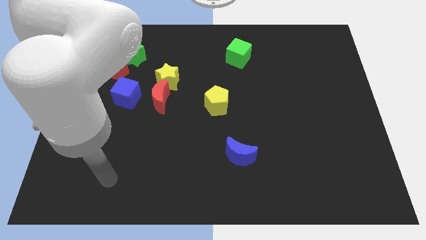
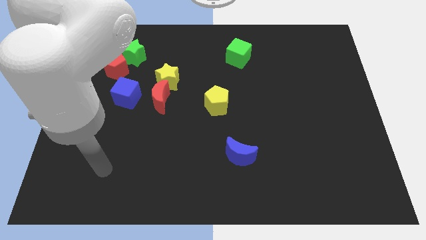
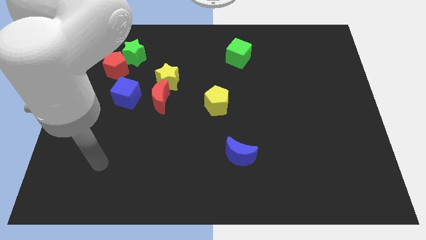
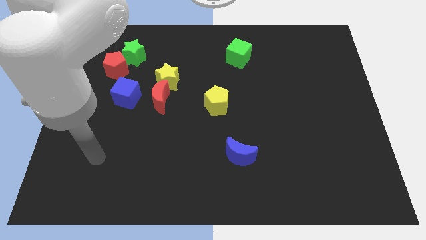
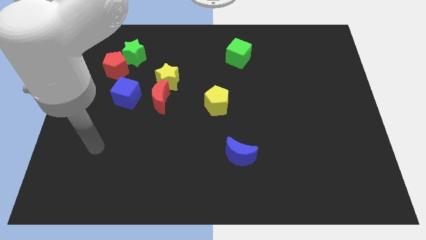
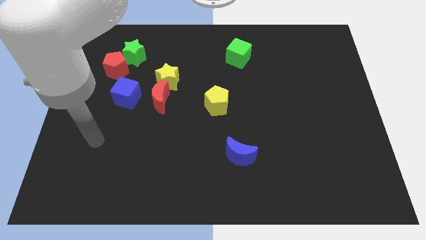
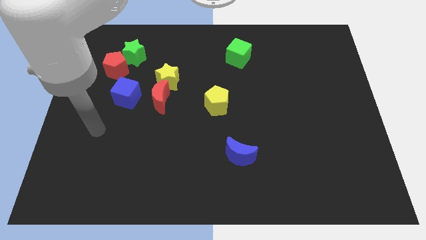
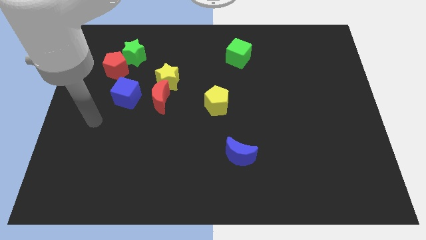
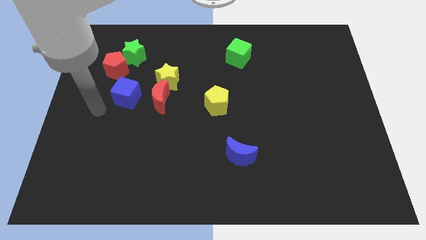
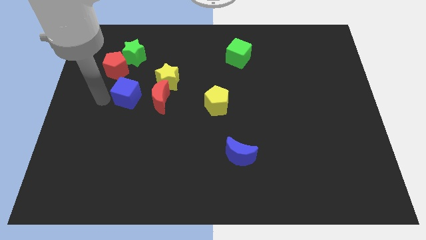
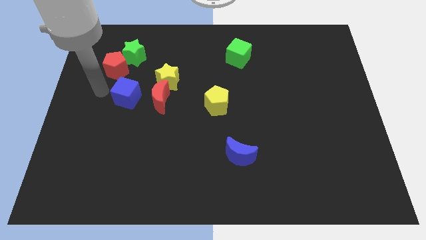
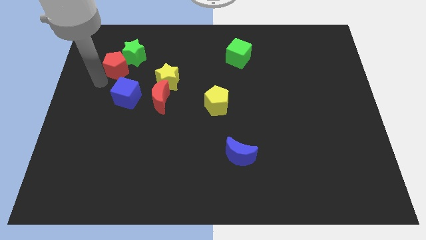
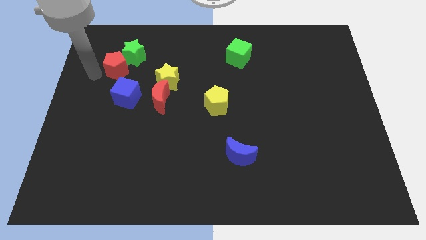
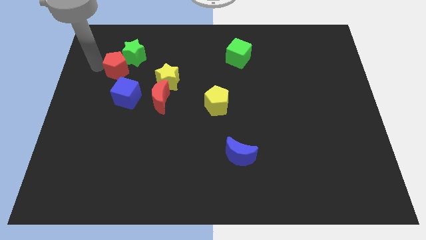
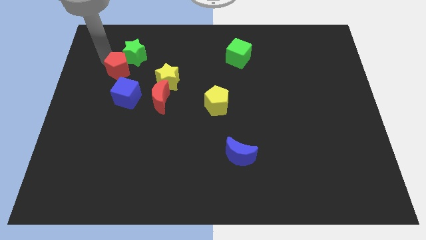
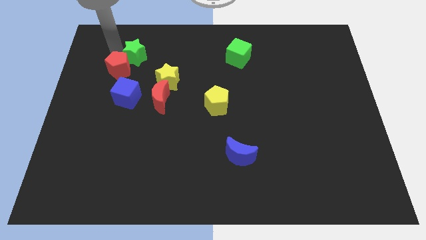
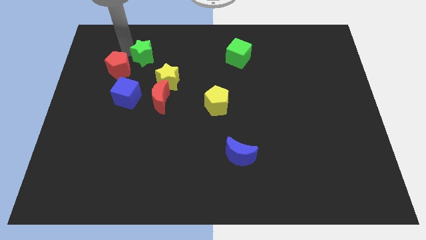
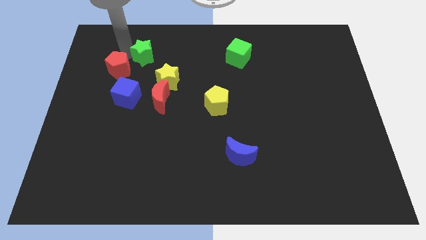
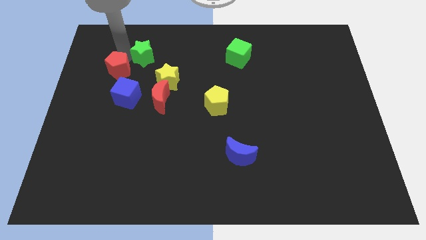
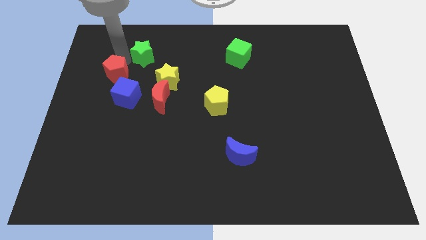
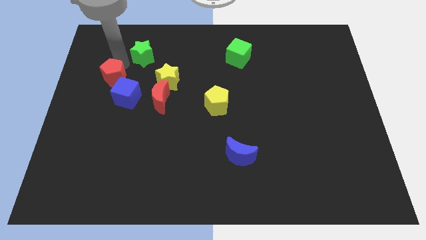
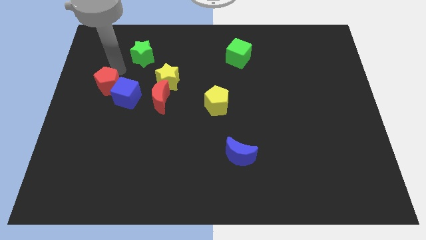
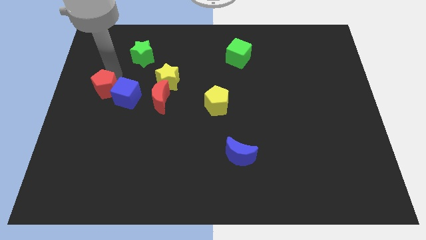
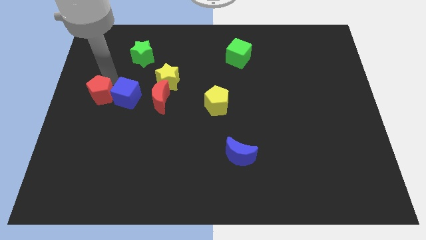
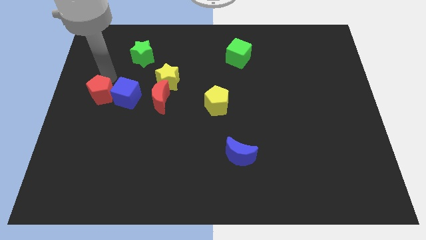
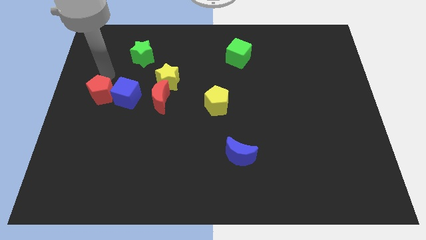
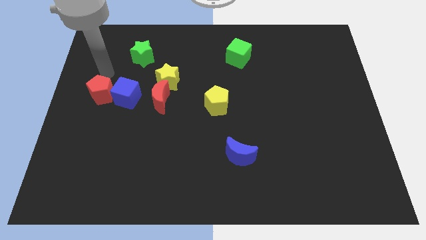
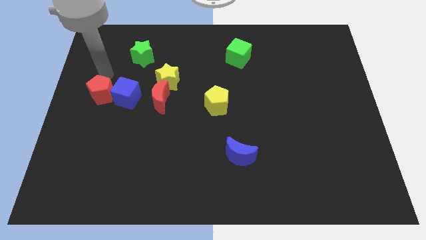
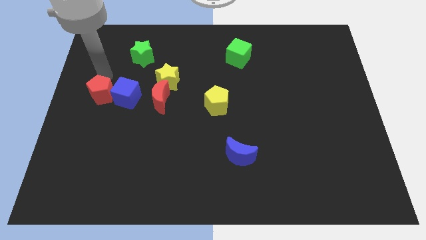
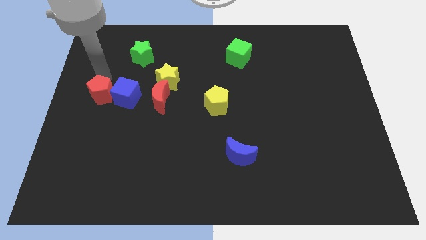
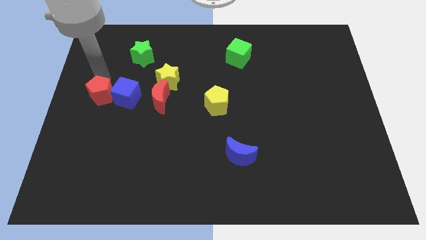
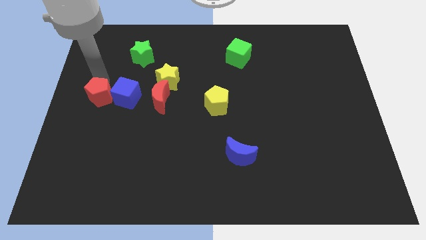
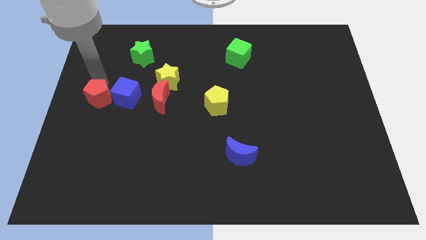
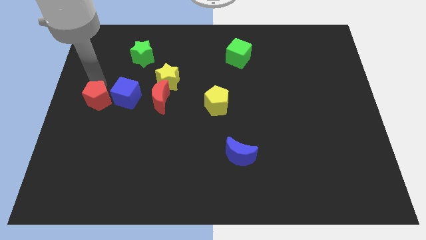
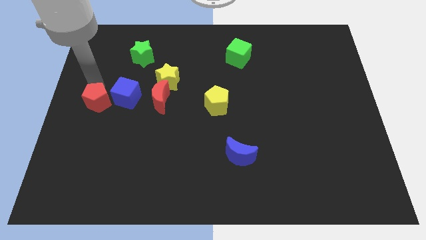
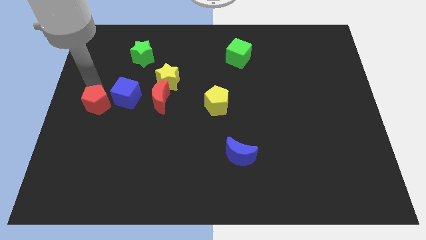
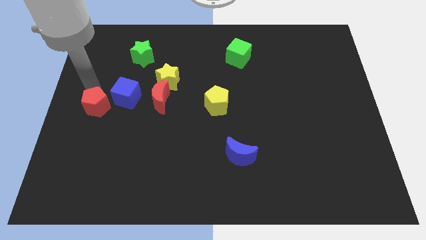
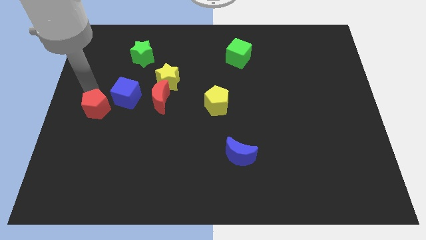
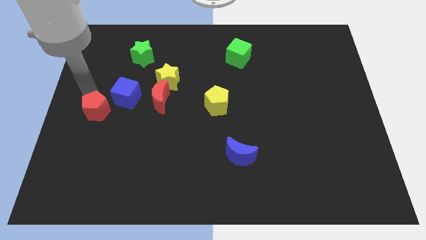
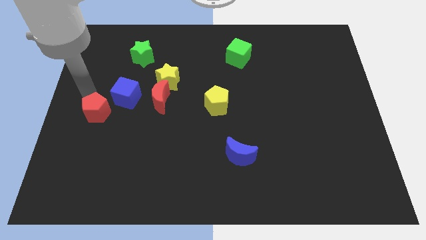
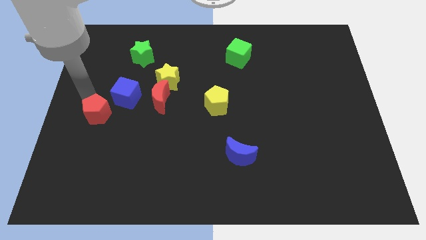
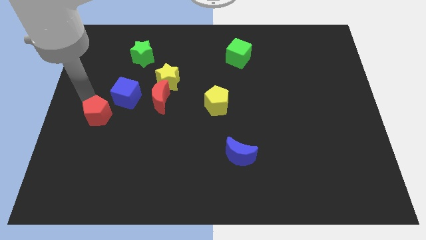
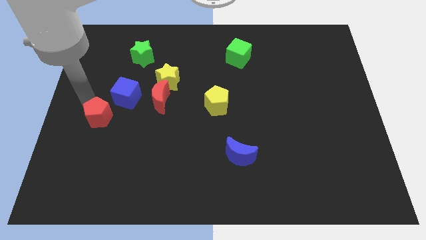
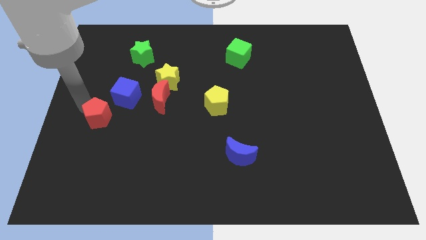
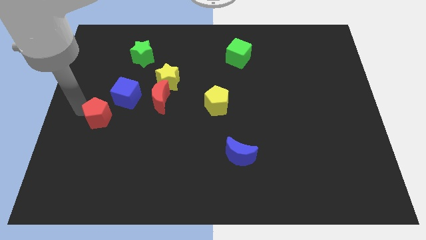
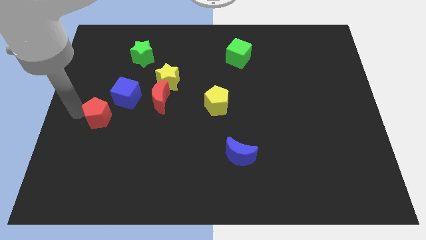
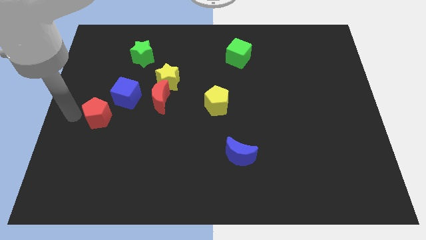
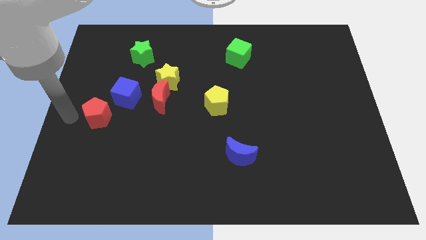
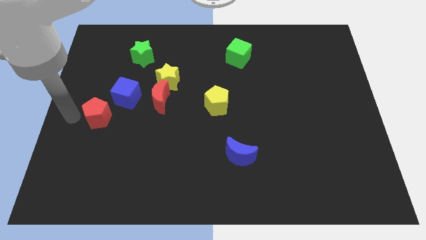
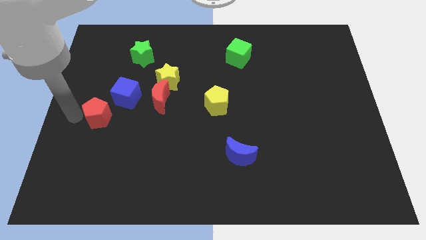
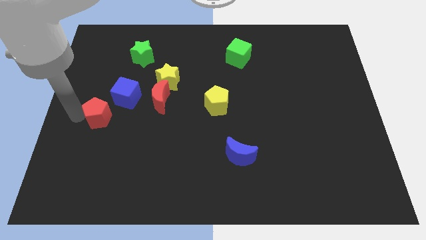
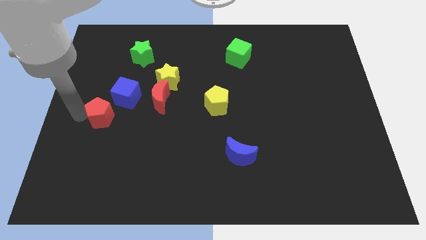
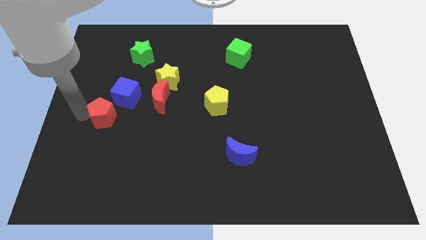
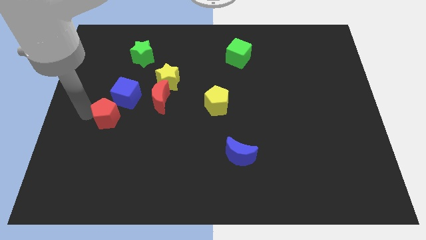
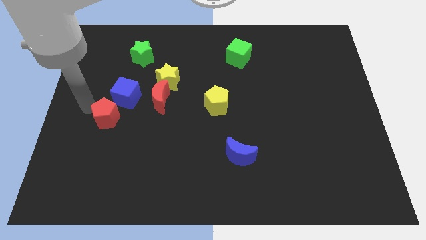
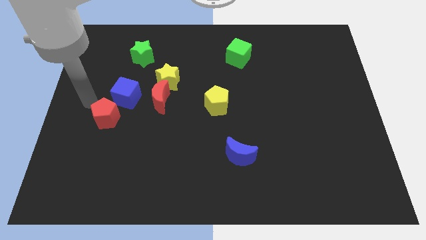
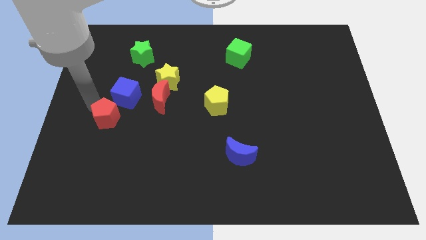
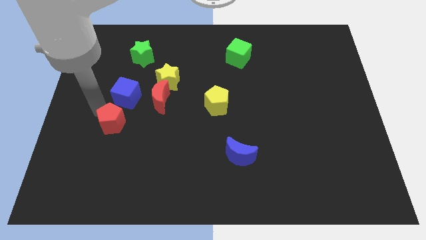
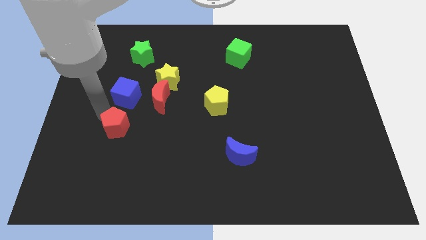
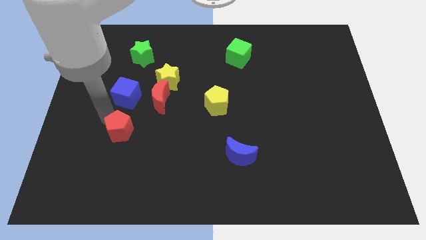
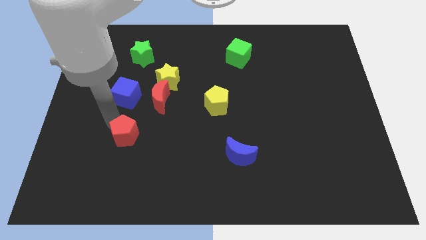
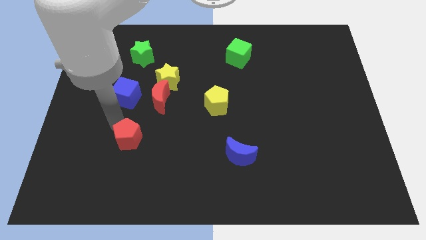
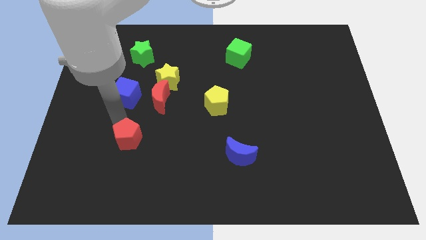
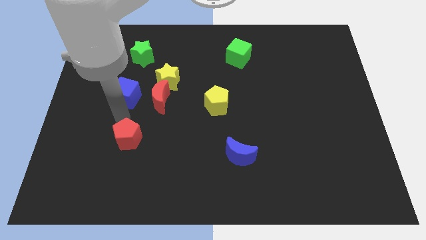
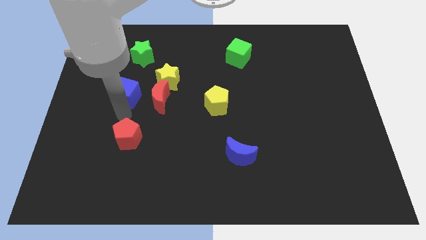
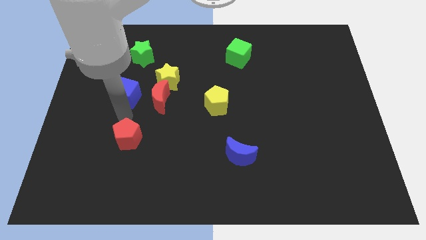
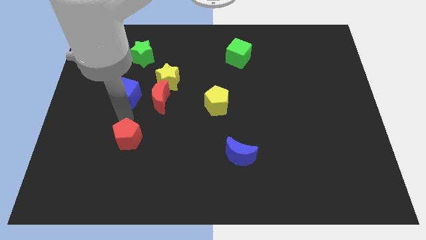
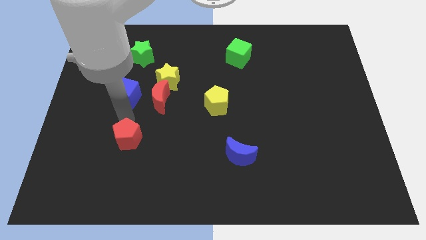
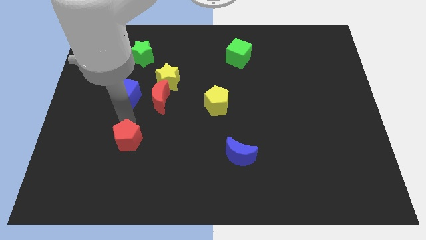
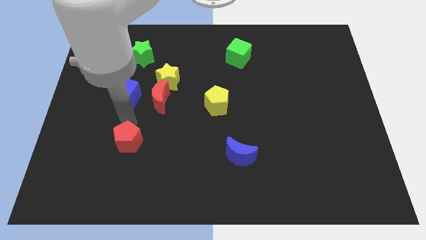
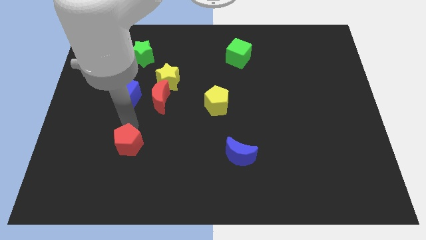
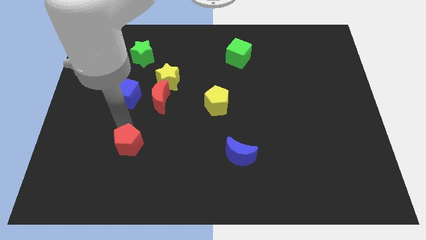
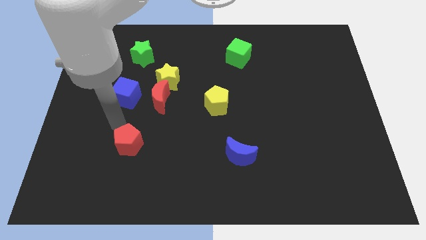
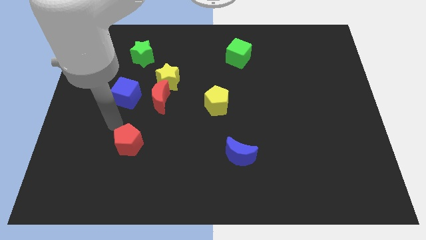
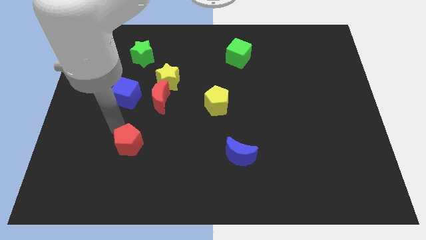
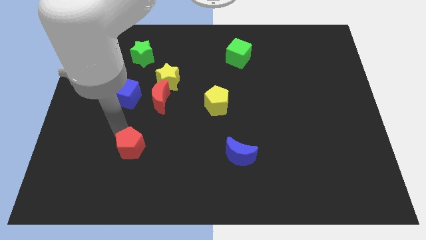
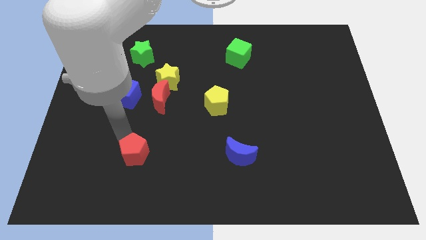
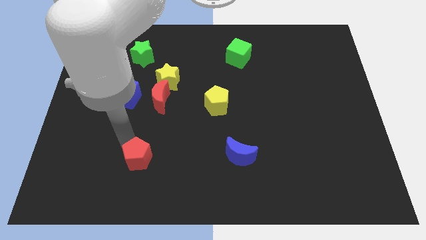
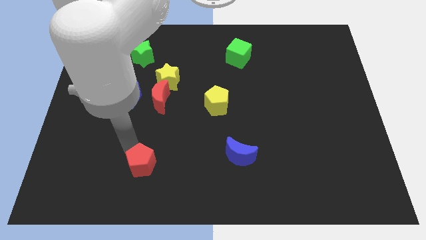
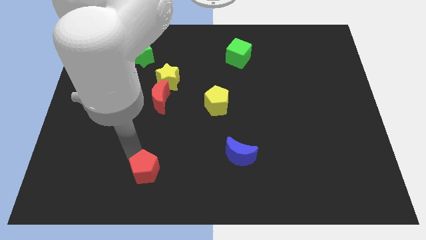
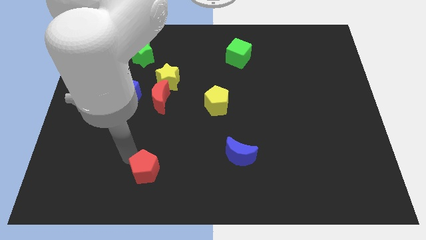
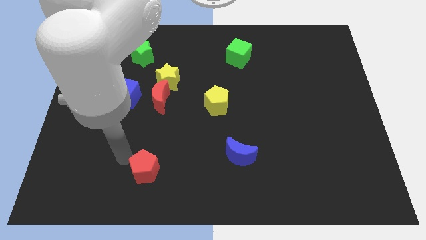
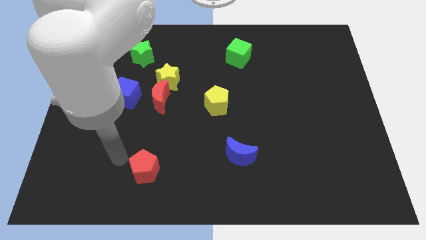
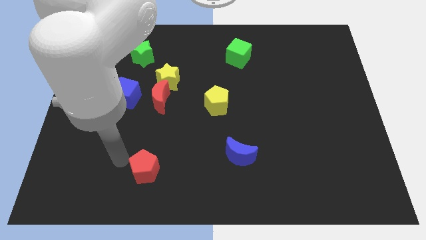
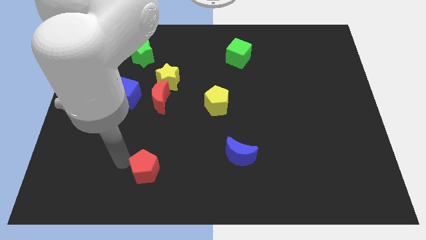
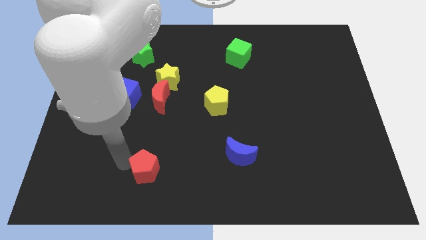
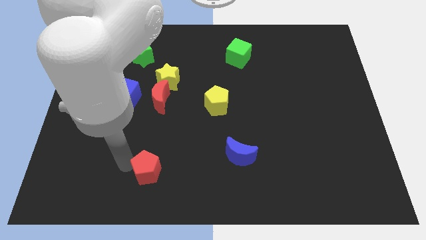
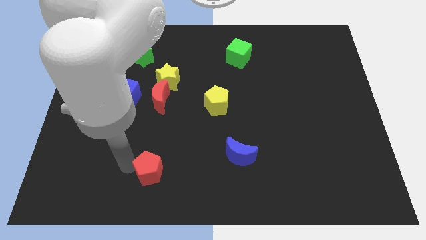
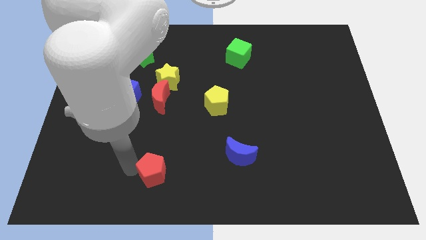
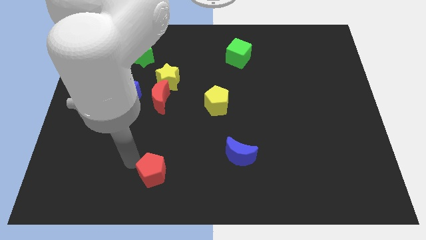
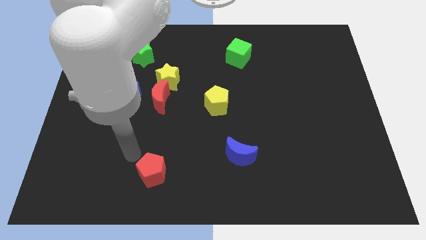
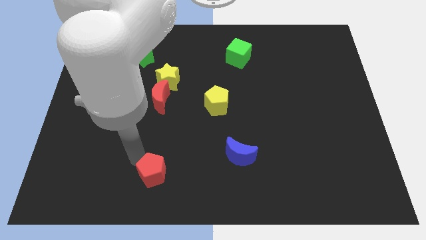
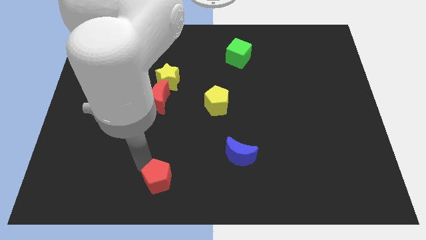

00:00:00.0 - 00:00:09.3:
put the red pentagon to the bottom
